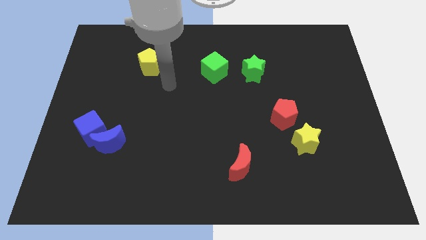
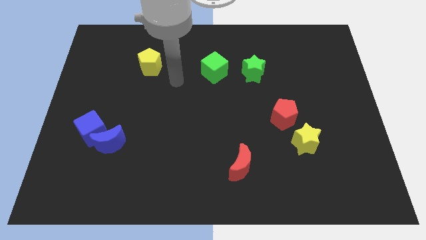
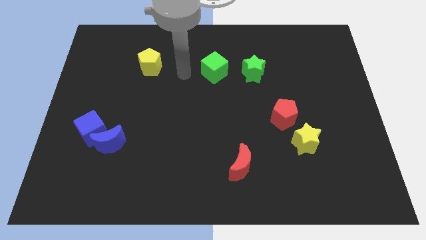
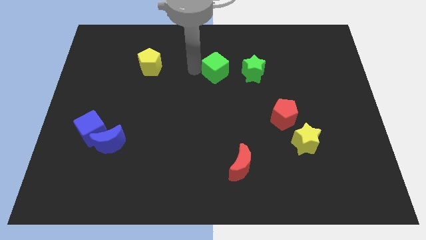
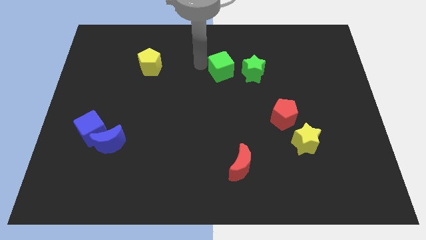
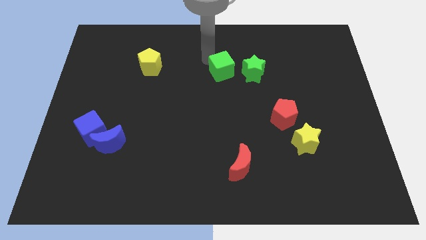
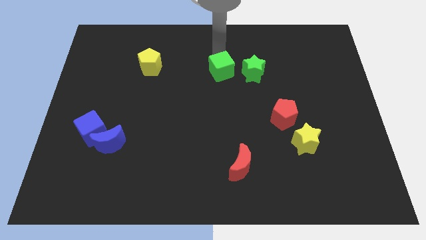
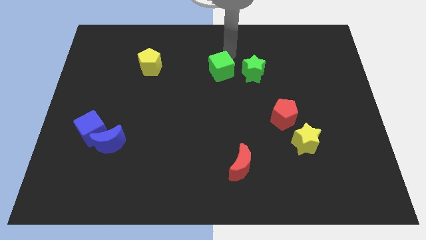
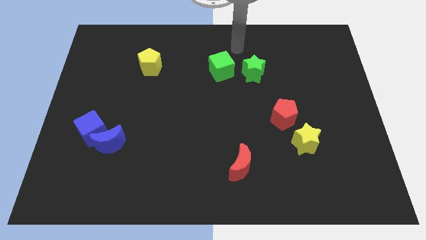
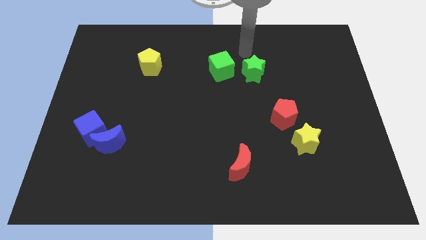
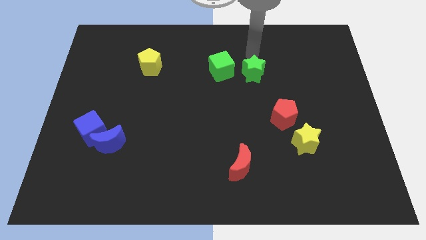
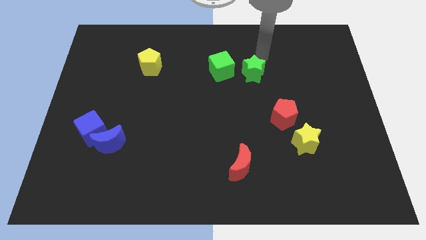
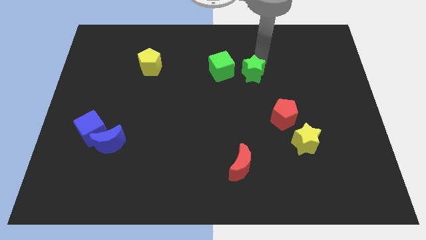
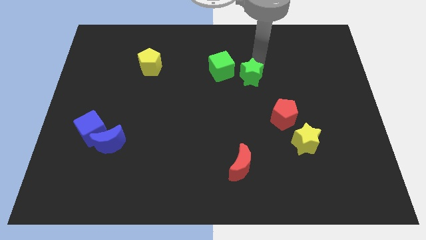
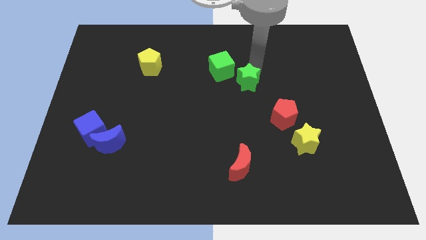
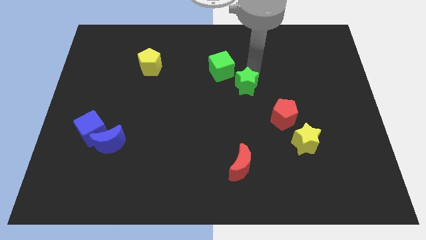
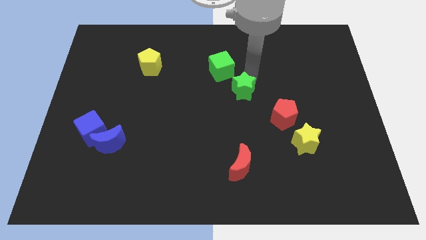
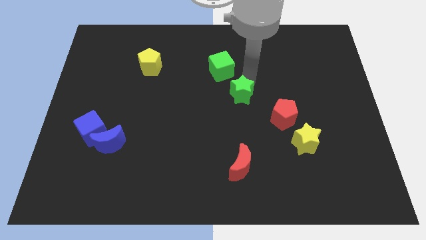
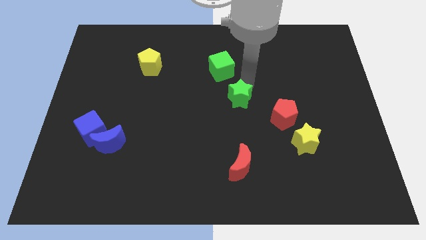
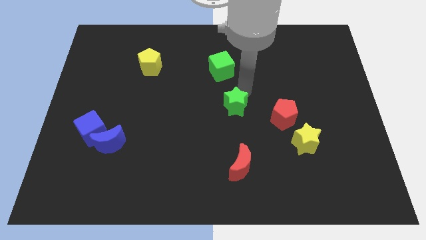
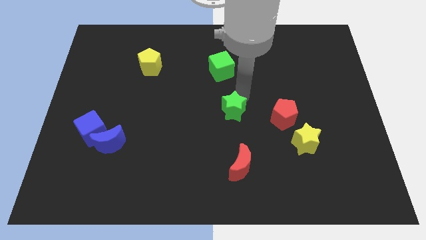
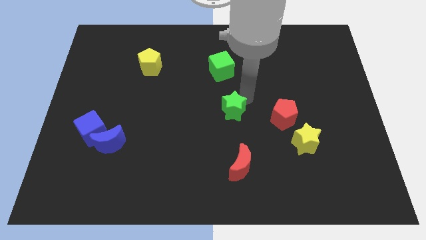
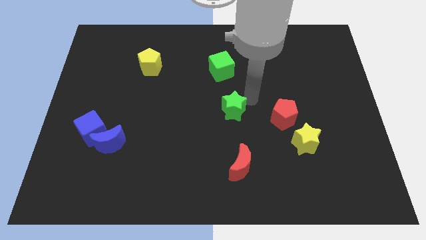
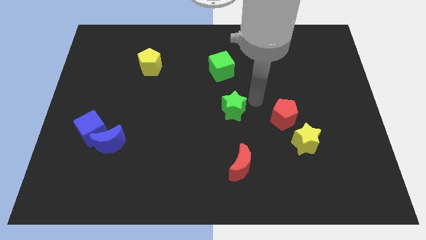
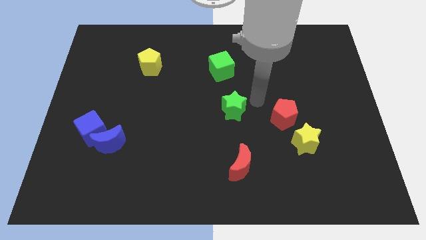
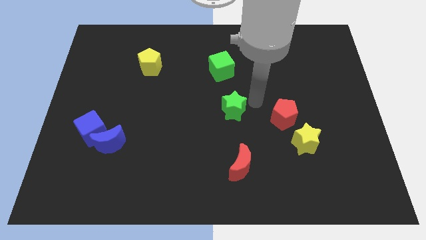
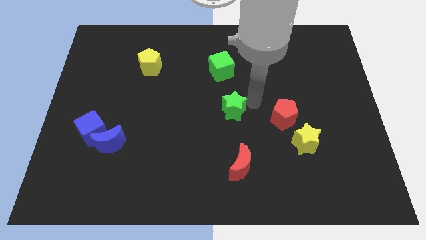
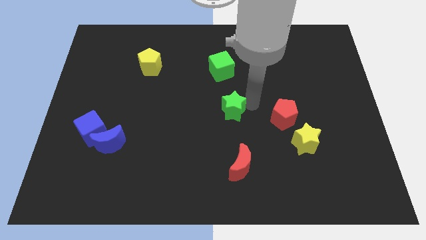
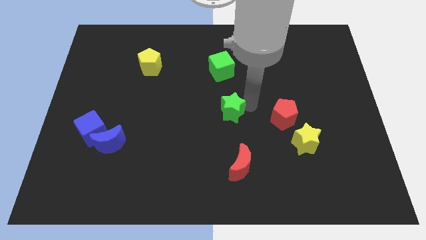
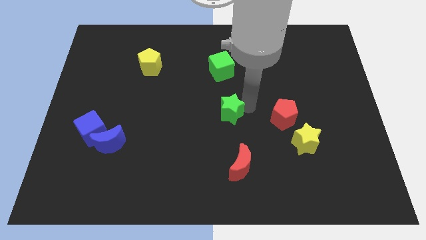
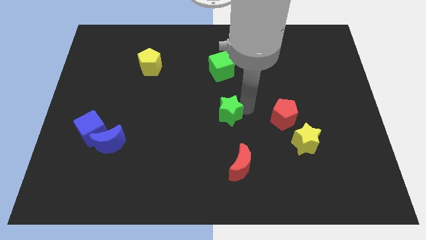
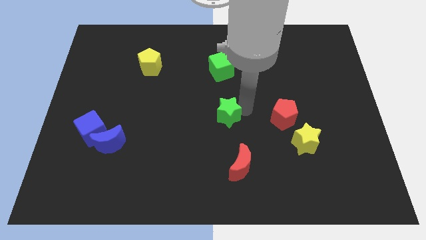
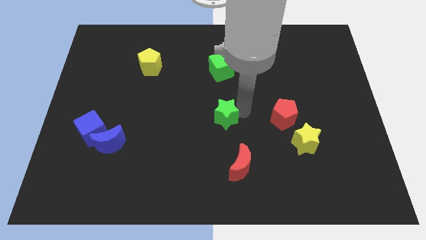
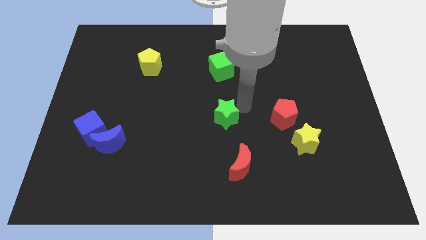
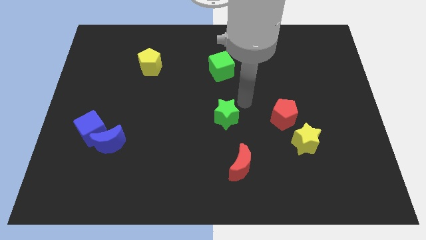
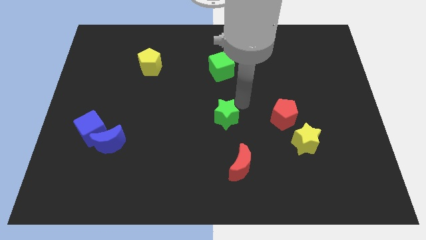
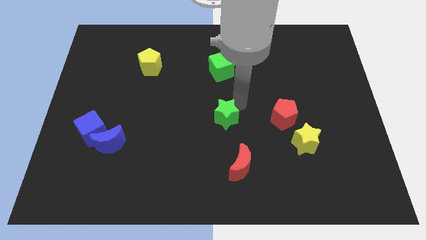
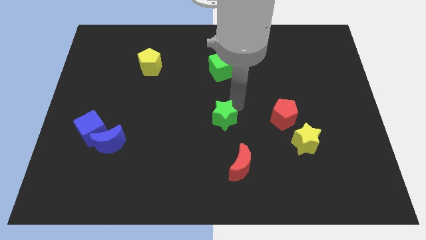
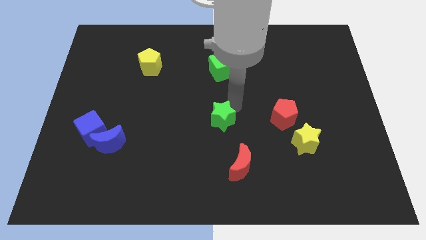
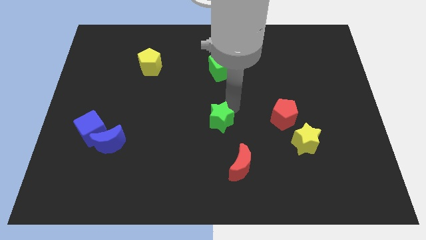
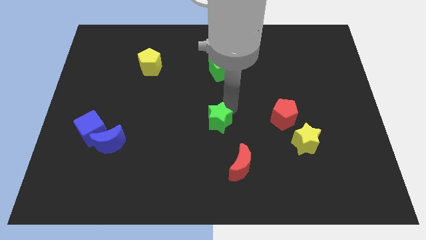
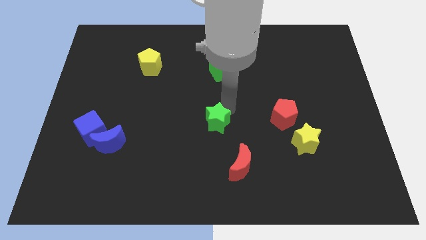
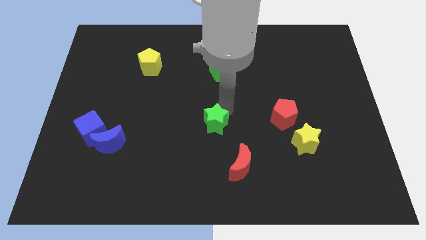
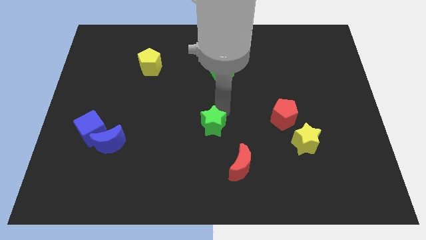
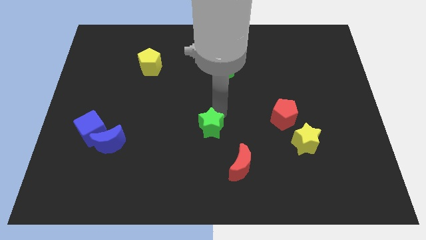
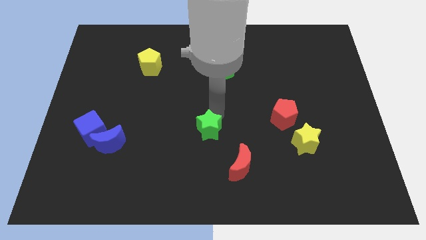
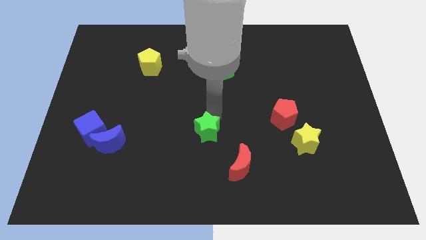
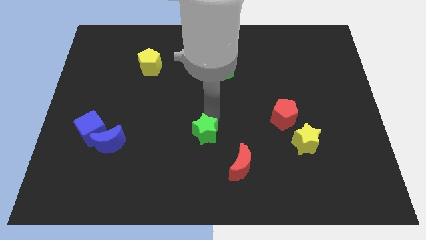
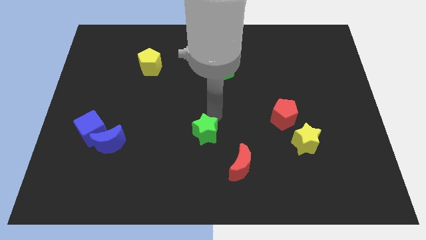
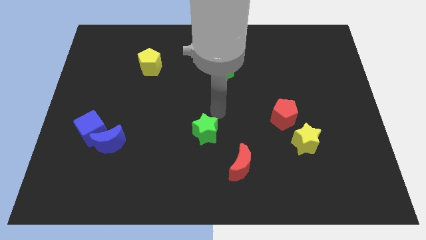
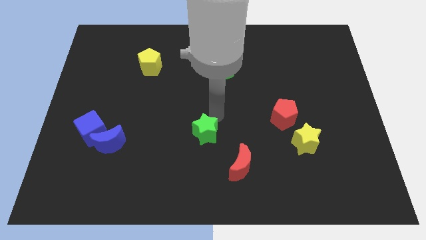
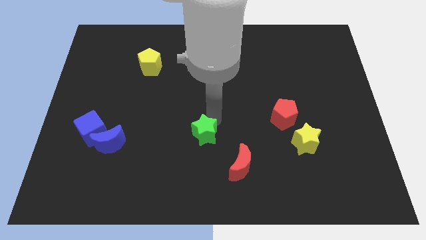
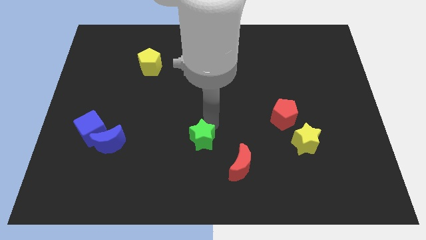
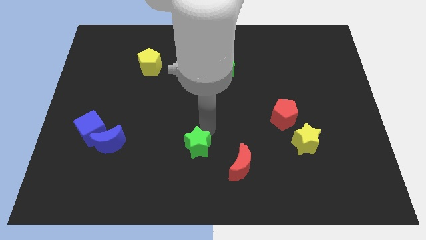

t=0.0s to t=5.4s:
slide the green star just left of the red moon

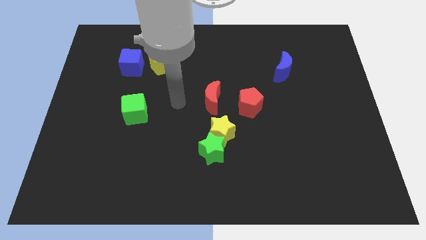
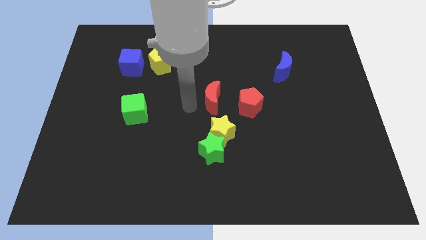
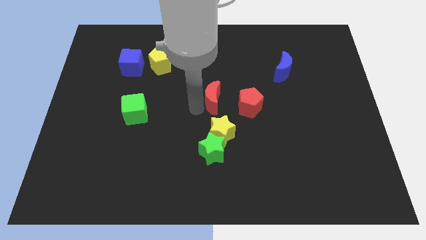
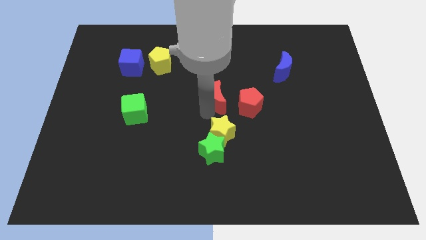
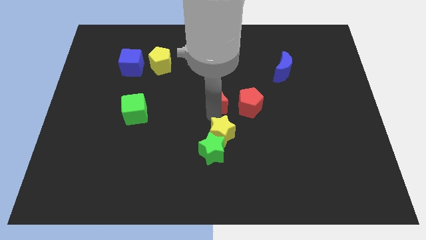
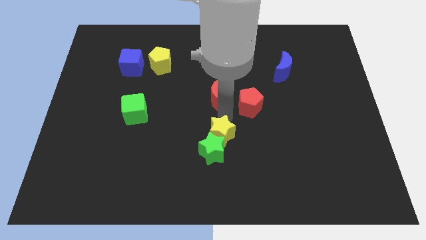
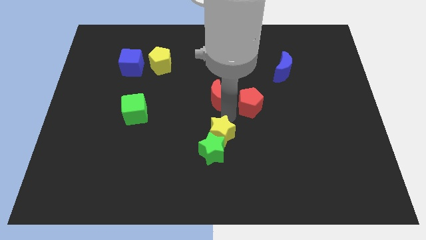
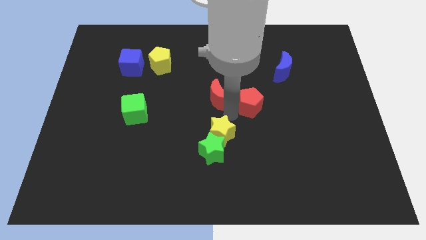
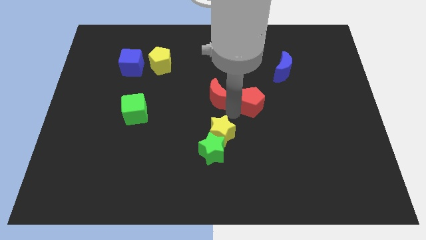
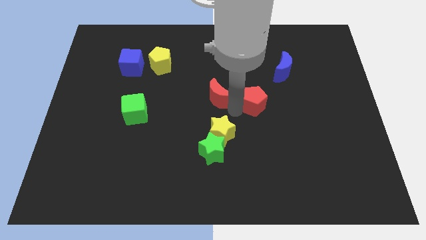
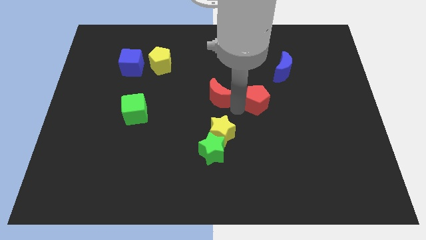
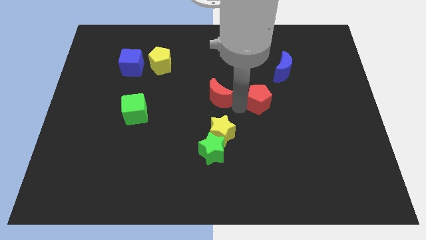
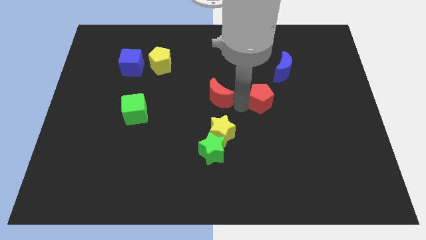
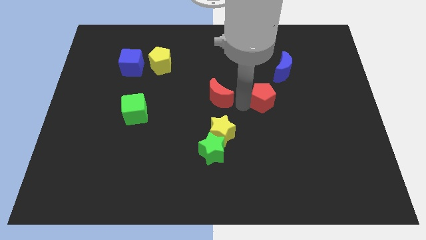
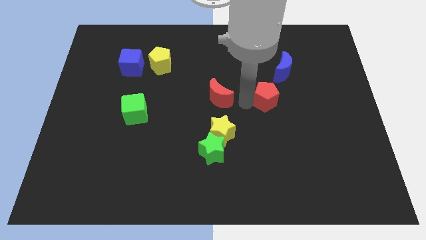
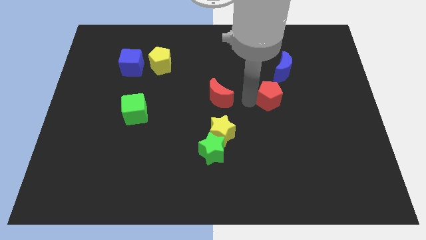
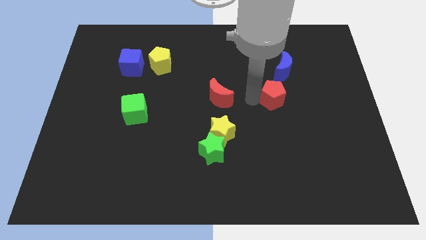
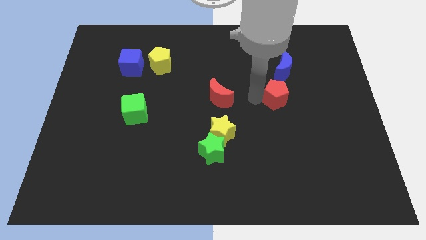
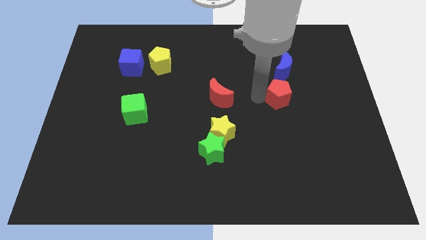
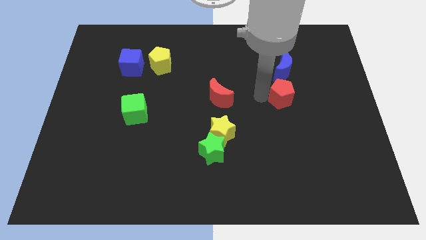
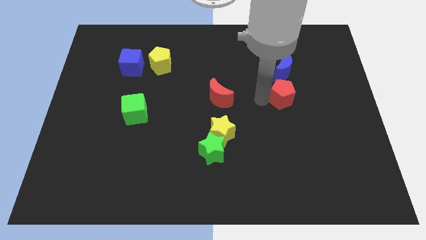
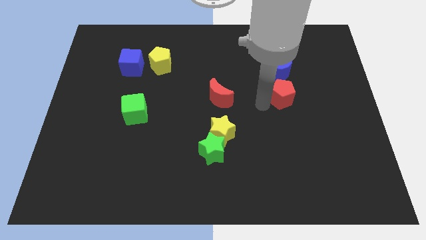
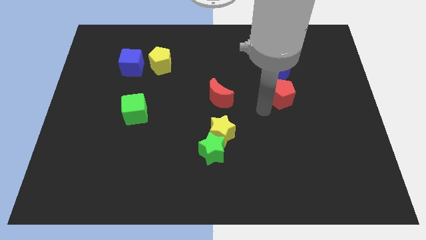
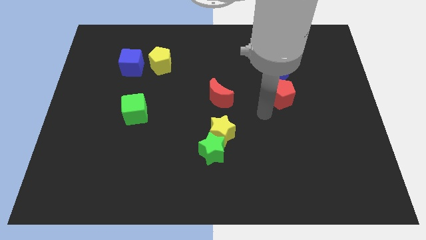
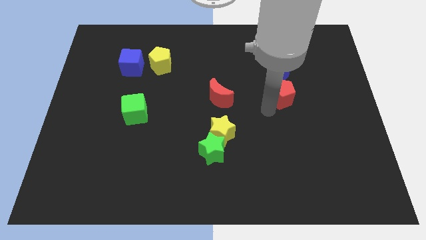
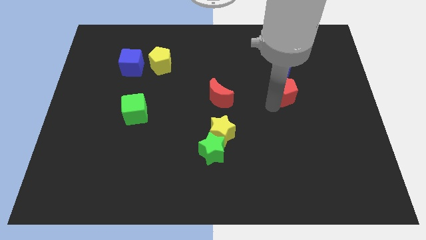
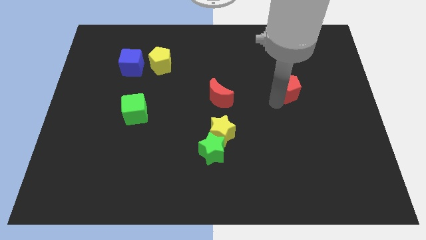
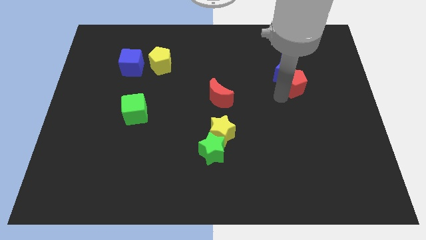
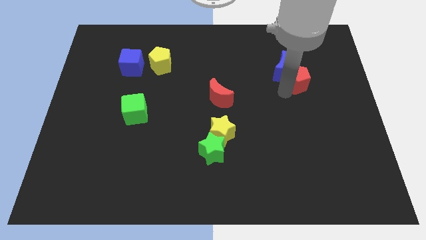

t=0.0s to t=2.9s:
slide the red pentagon to the right side of the blue moon
